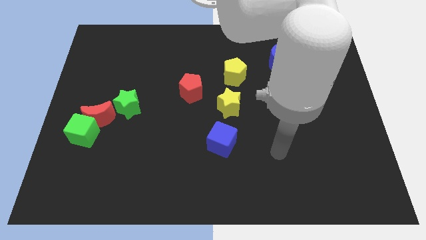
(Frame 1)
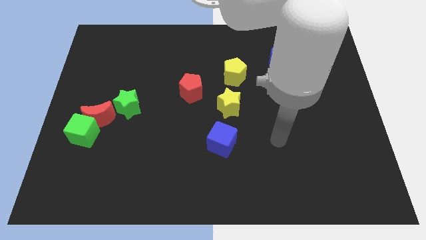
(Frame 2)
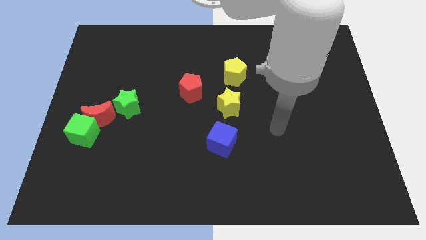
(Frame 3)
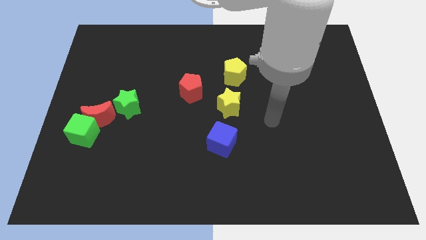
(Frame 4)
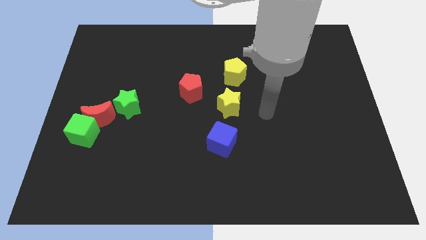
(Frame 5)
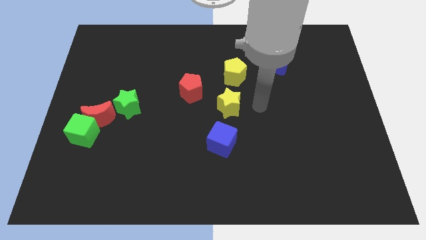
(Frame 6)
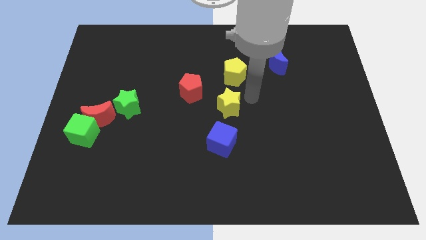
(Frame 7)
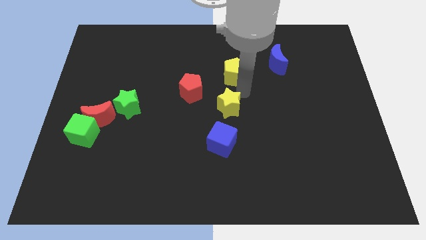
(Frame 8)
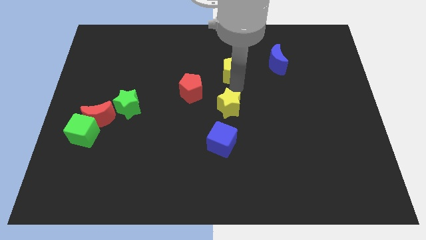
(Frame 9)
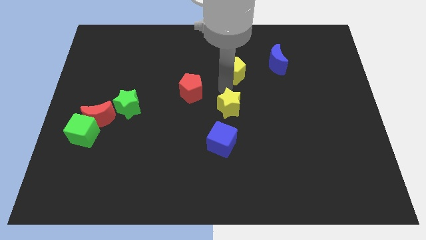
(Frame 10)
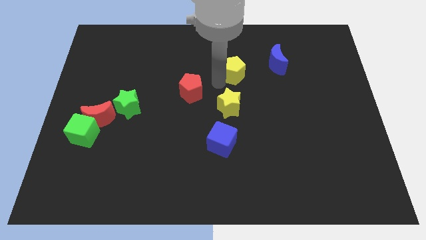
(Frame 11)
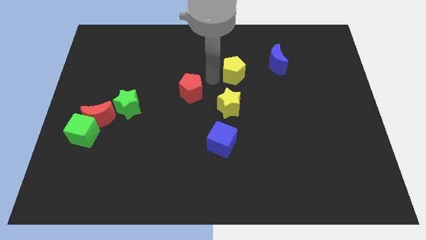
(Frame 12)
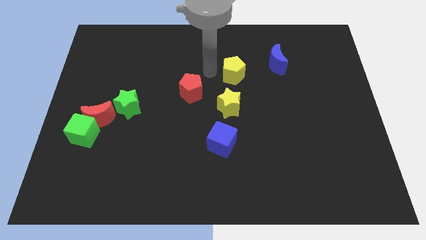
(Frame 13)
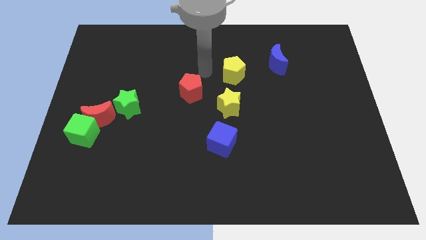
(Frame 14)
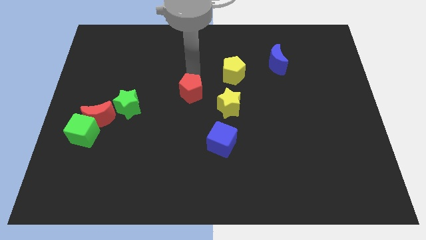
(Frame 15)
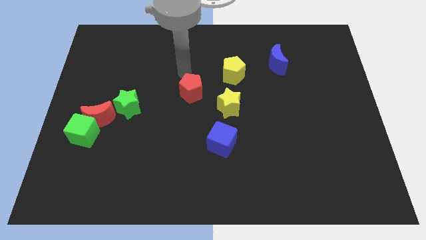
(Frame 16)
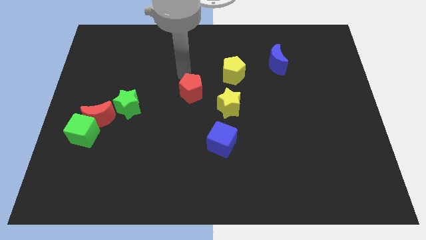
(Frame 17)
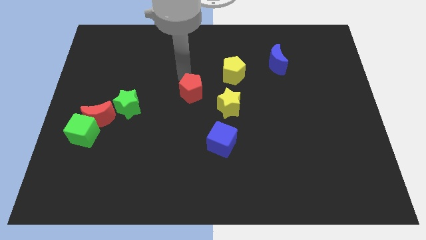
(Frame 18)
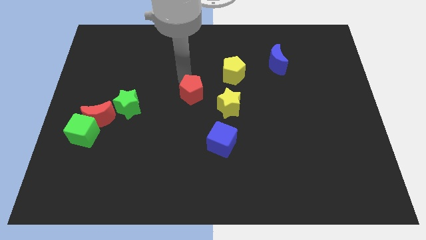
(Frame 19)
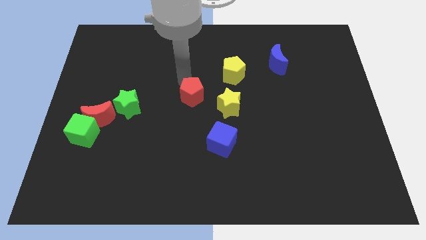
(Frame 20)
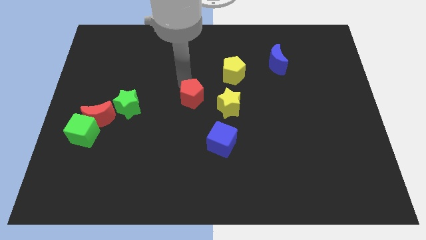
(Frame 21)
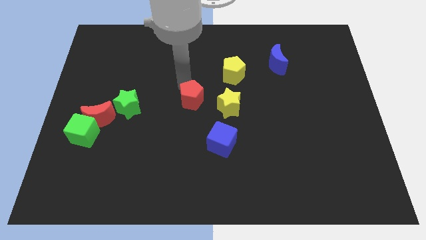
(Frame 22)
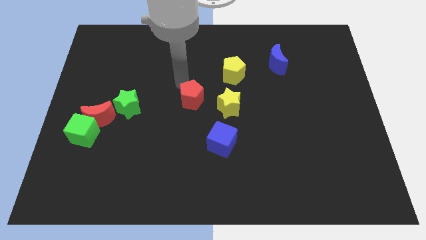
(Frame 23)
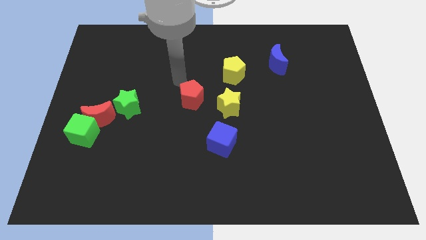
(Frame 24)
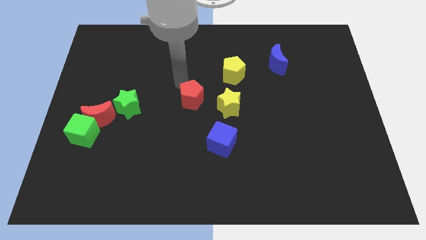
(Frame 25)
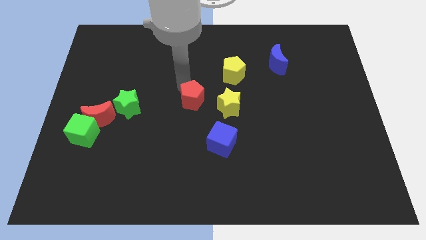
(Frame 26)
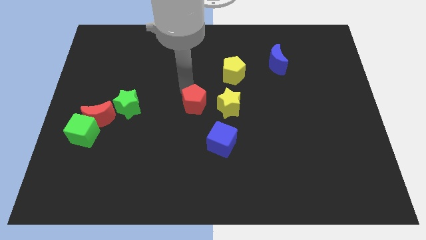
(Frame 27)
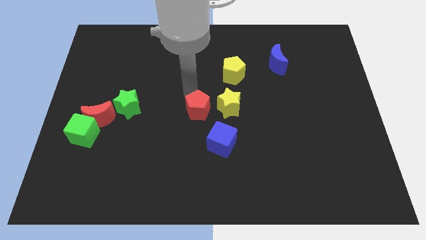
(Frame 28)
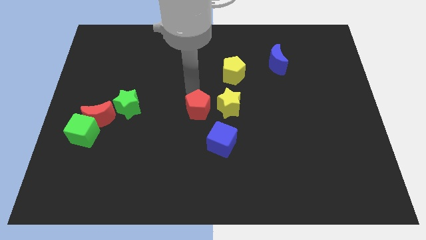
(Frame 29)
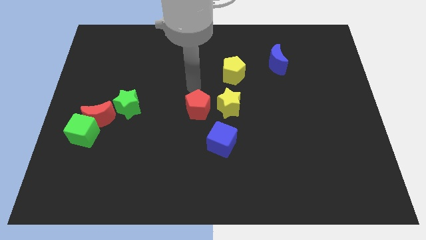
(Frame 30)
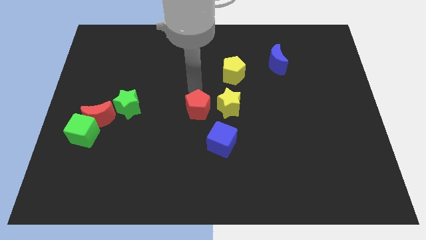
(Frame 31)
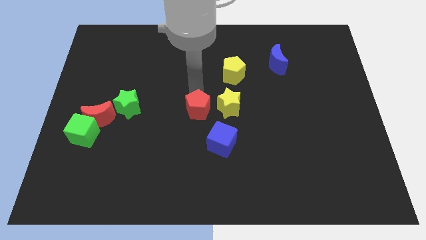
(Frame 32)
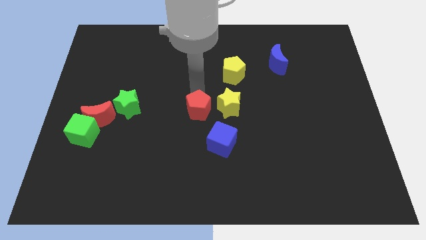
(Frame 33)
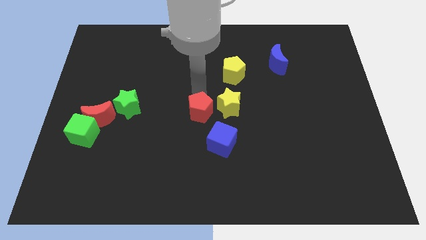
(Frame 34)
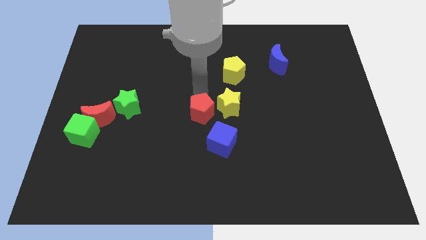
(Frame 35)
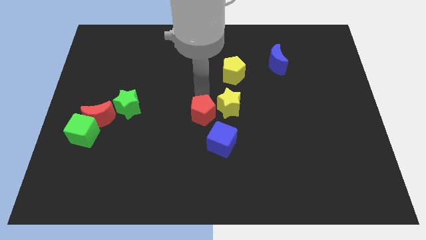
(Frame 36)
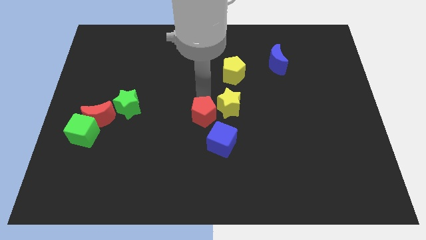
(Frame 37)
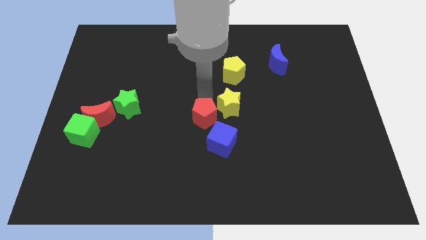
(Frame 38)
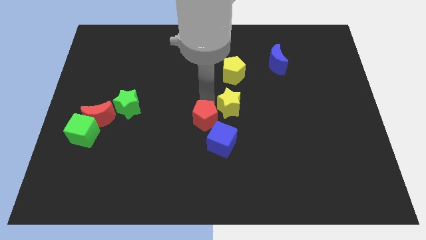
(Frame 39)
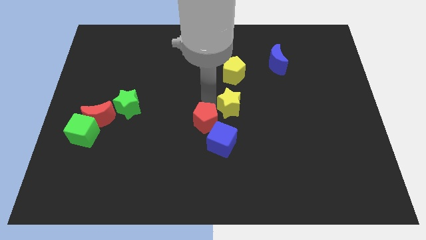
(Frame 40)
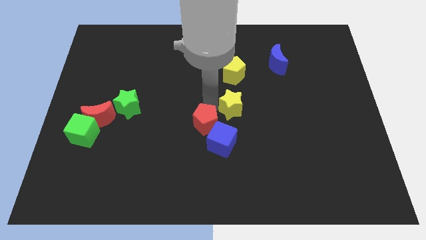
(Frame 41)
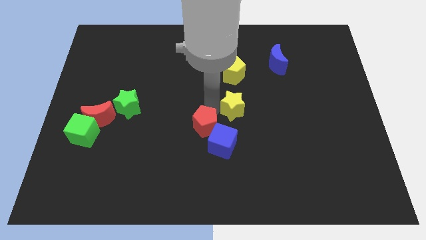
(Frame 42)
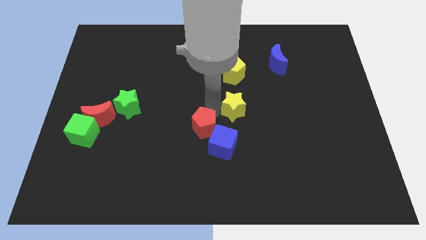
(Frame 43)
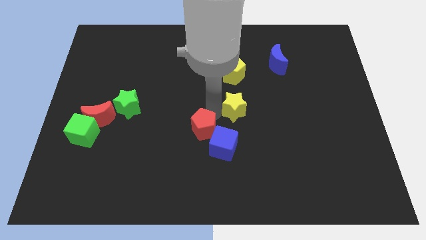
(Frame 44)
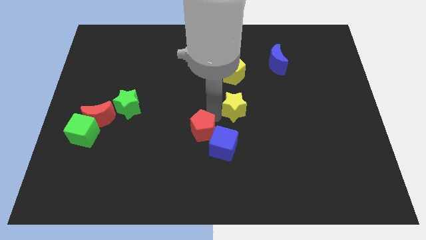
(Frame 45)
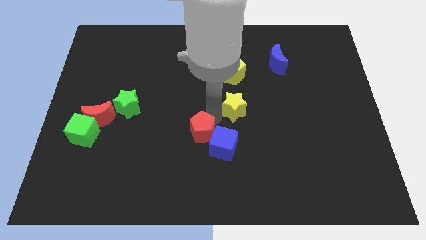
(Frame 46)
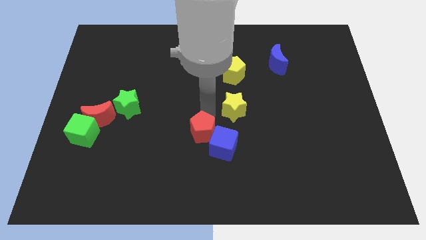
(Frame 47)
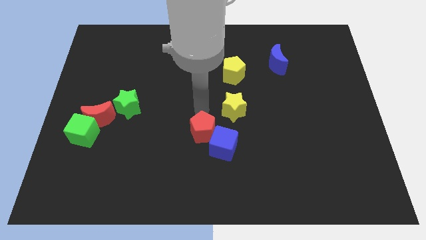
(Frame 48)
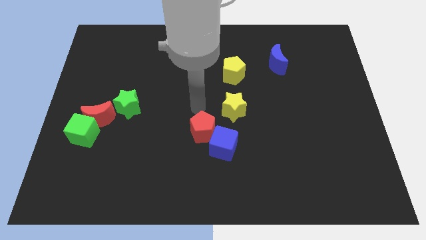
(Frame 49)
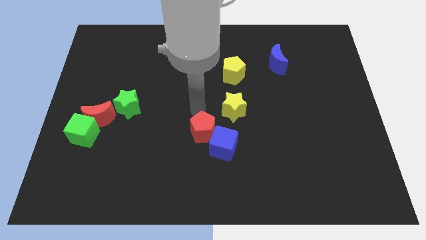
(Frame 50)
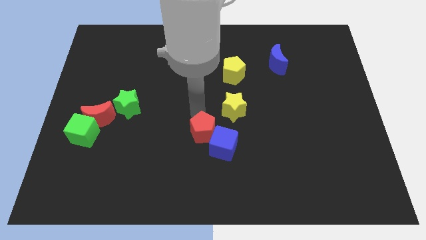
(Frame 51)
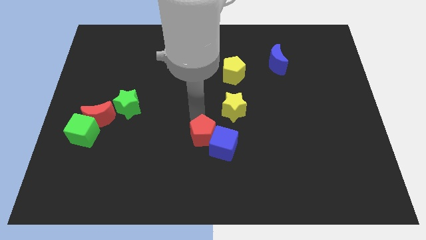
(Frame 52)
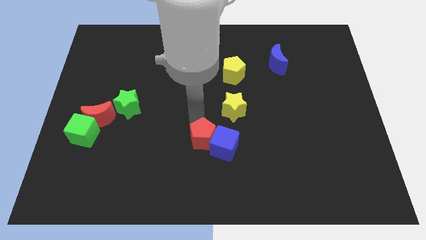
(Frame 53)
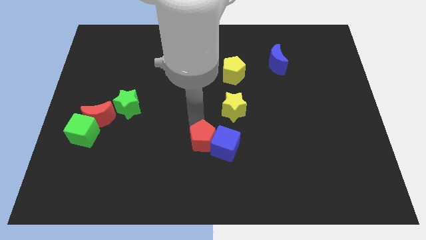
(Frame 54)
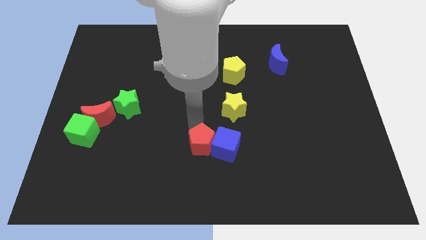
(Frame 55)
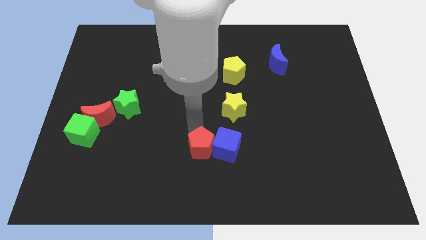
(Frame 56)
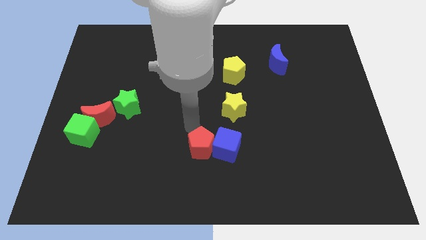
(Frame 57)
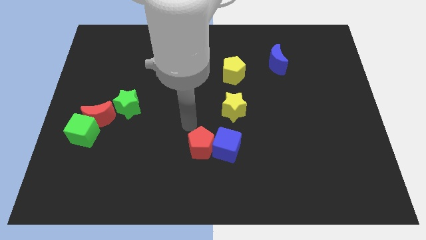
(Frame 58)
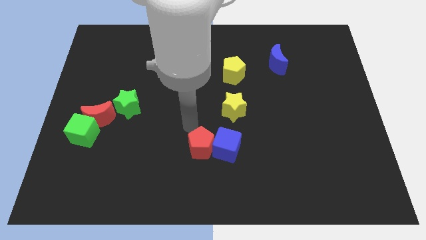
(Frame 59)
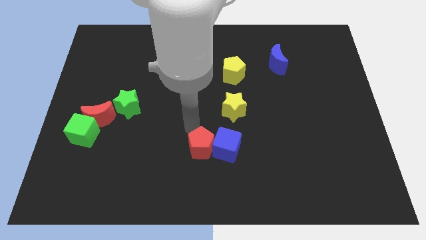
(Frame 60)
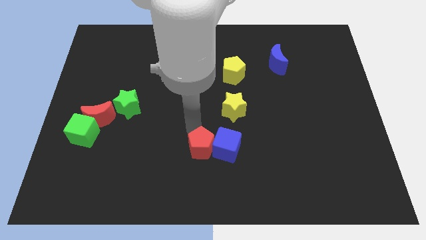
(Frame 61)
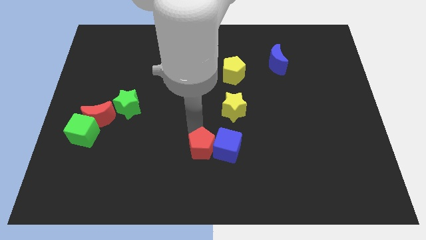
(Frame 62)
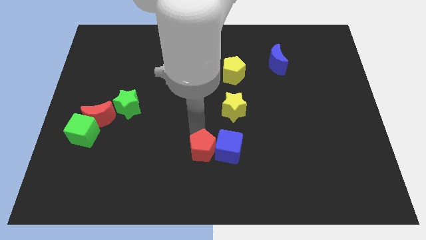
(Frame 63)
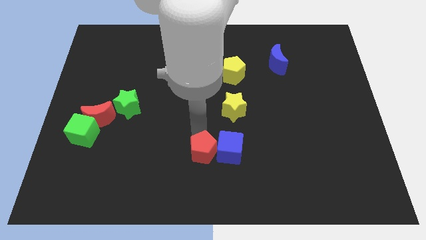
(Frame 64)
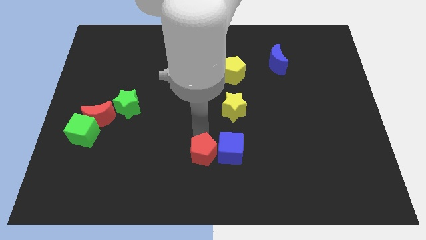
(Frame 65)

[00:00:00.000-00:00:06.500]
put the red pentagon to the bottom side

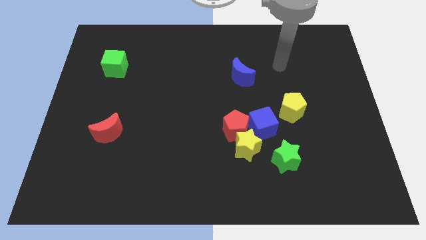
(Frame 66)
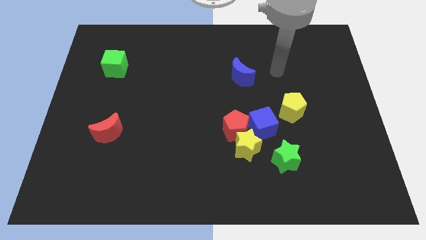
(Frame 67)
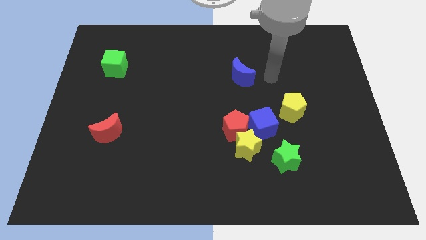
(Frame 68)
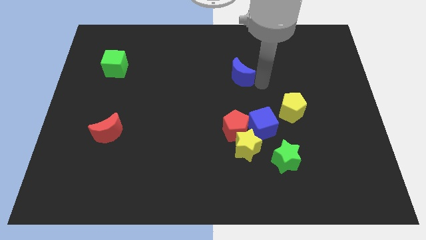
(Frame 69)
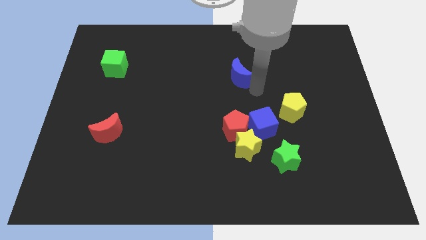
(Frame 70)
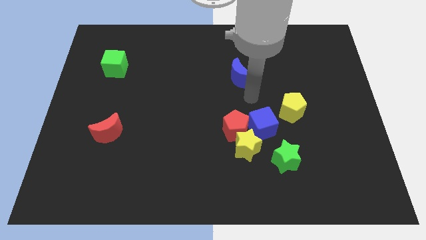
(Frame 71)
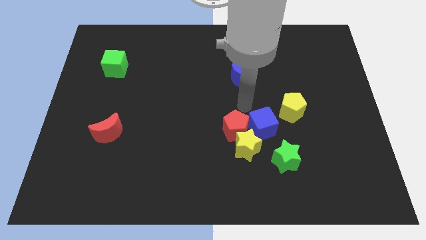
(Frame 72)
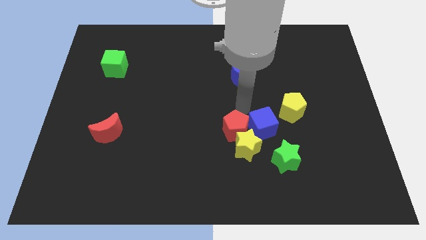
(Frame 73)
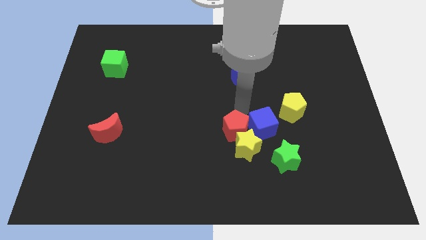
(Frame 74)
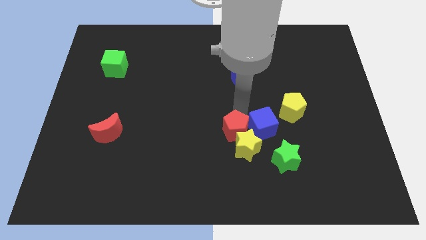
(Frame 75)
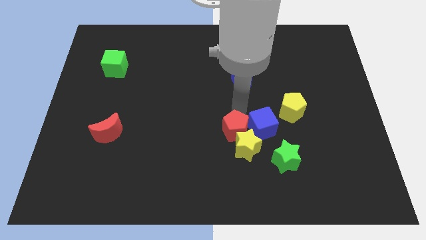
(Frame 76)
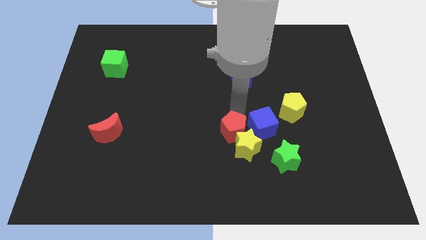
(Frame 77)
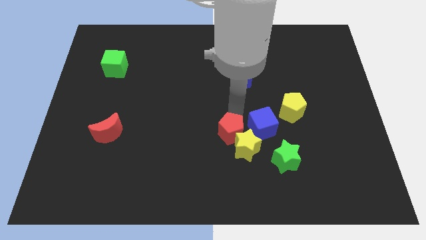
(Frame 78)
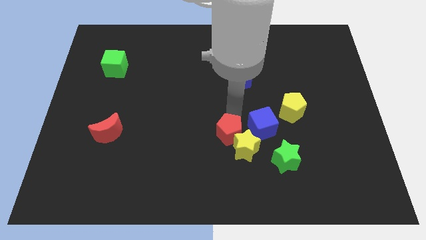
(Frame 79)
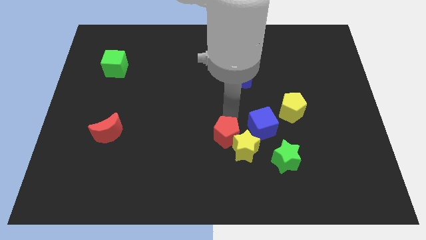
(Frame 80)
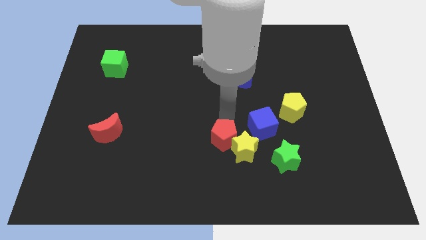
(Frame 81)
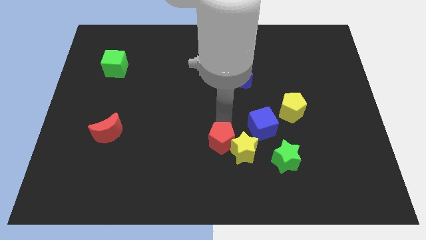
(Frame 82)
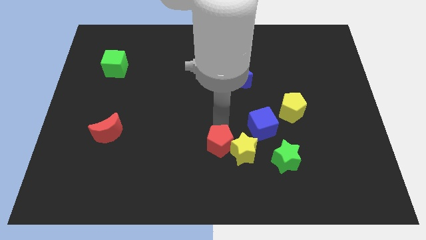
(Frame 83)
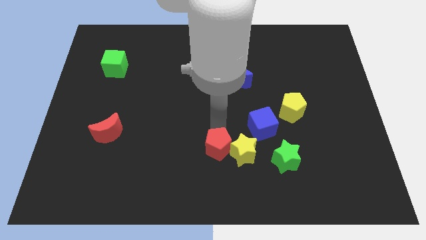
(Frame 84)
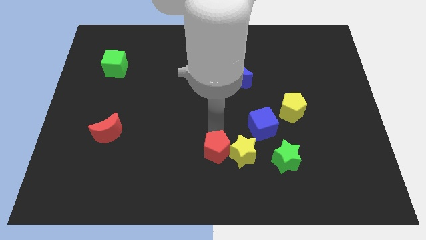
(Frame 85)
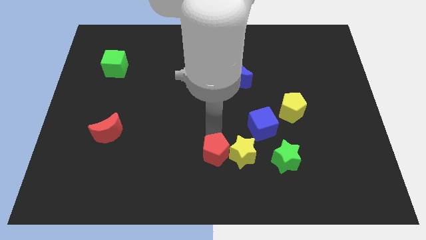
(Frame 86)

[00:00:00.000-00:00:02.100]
move the red pentagon to the bottom side
